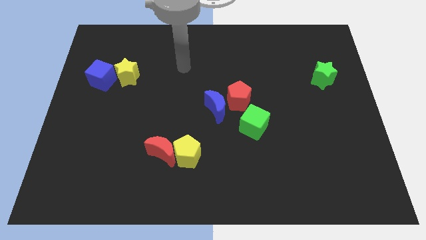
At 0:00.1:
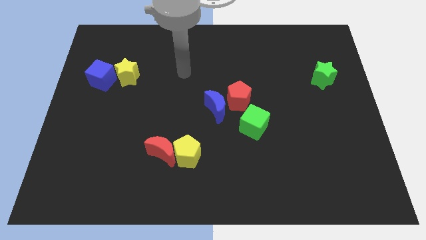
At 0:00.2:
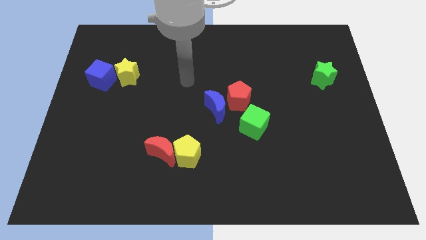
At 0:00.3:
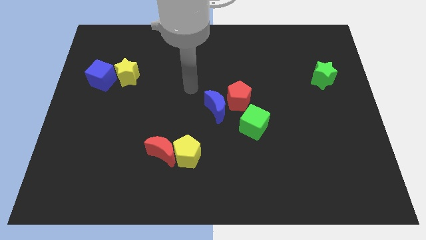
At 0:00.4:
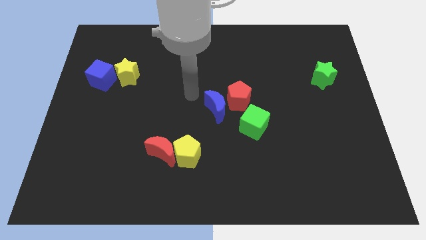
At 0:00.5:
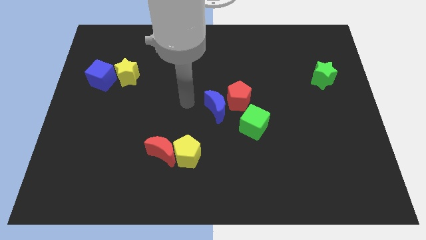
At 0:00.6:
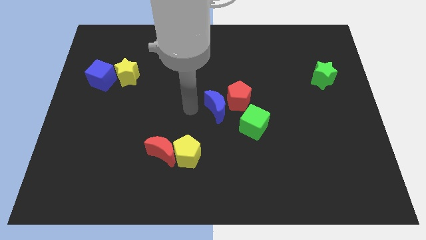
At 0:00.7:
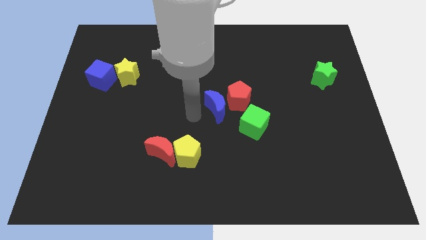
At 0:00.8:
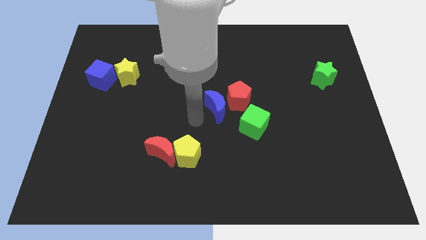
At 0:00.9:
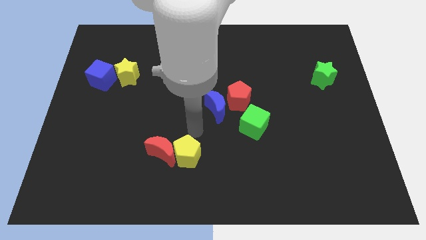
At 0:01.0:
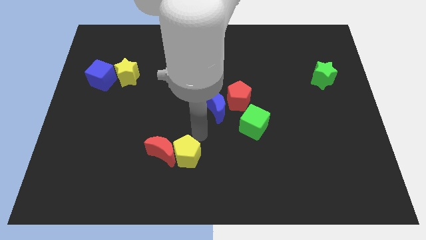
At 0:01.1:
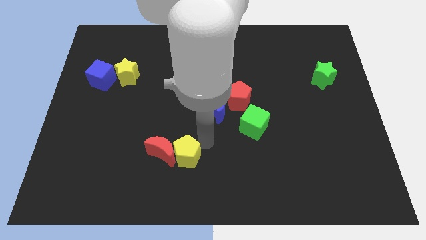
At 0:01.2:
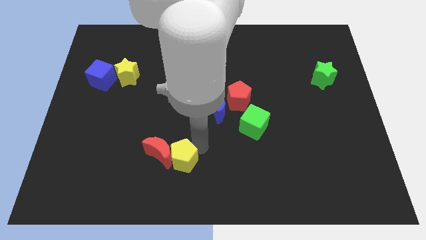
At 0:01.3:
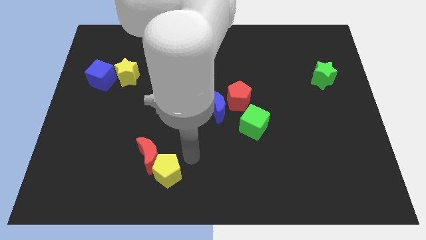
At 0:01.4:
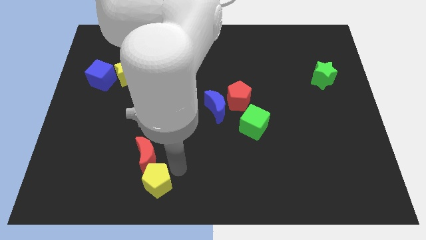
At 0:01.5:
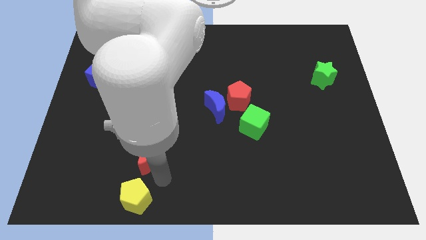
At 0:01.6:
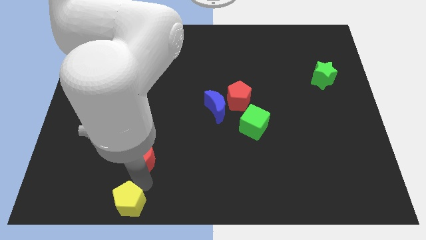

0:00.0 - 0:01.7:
separate the red moon from the yellow pentagon

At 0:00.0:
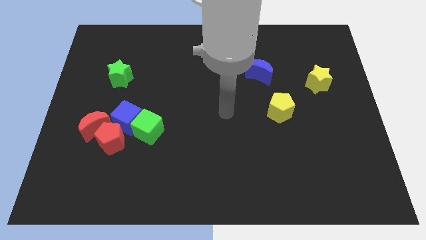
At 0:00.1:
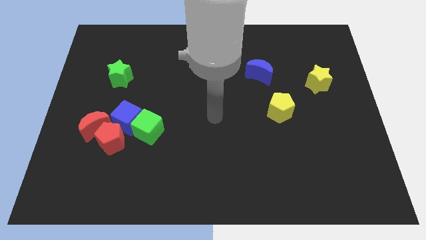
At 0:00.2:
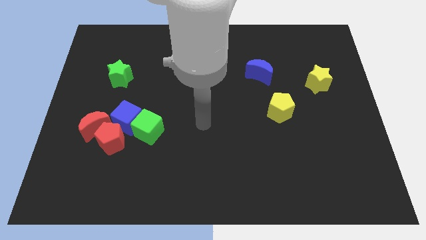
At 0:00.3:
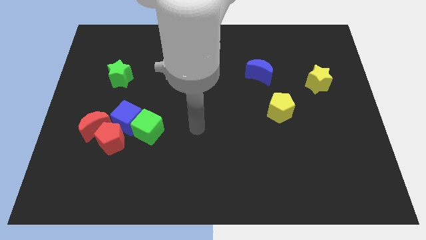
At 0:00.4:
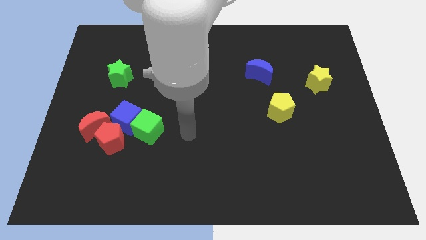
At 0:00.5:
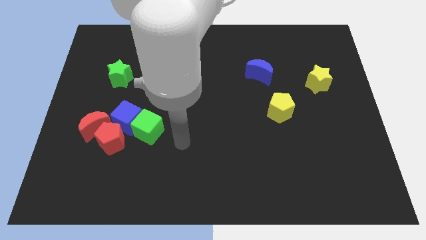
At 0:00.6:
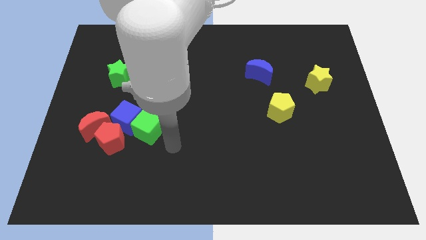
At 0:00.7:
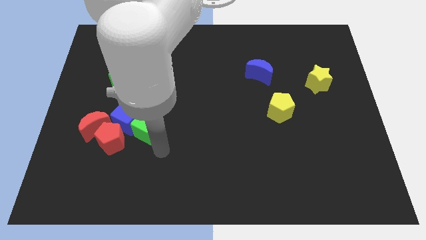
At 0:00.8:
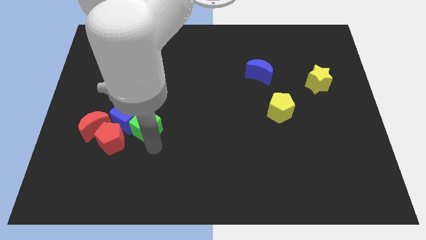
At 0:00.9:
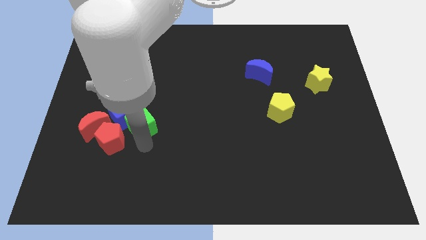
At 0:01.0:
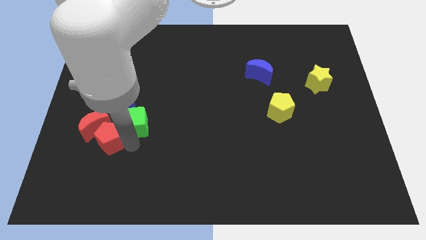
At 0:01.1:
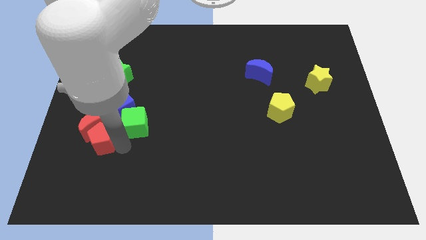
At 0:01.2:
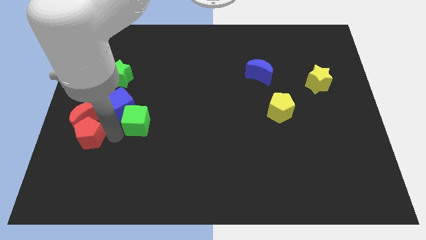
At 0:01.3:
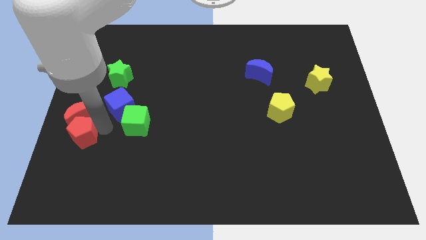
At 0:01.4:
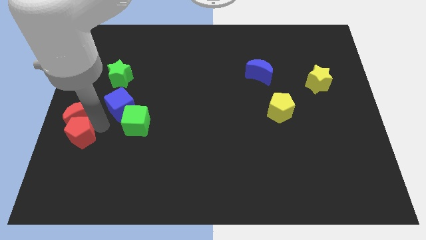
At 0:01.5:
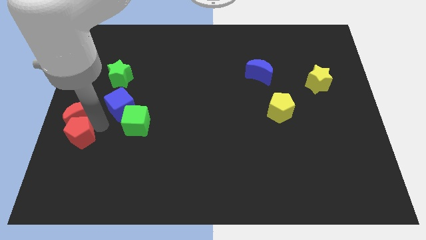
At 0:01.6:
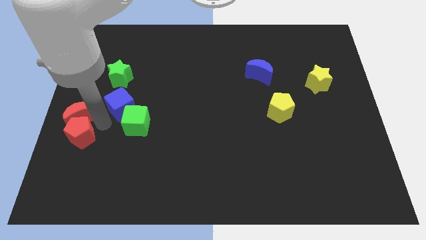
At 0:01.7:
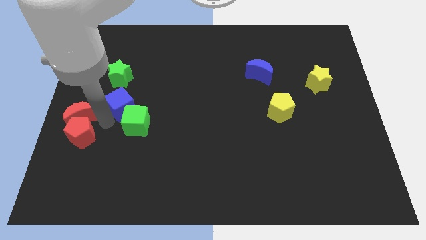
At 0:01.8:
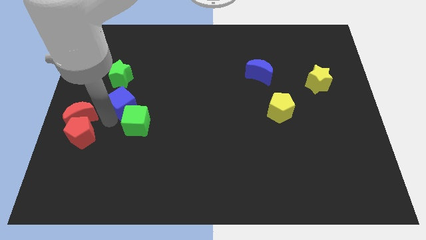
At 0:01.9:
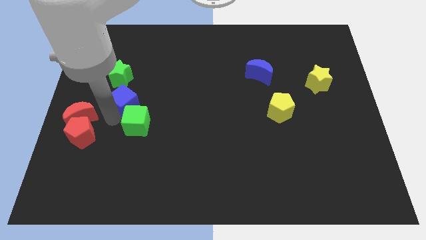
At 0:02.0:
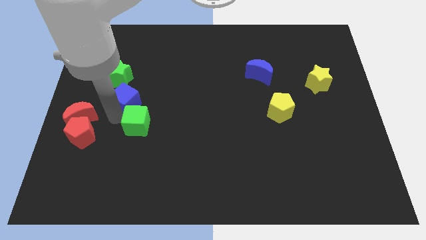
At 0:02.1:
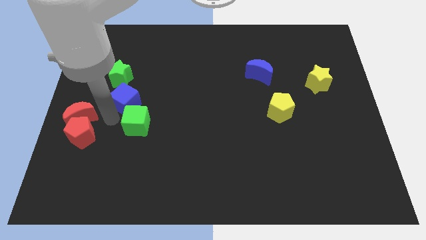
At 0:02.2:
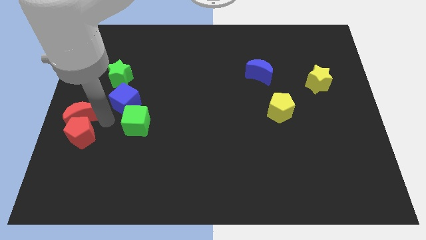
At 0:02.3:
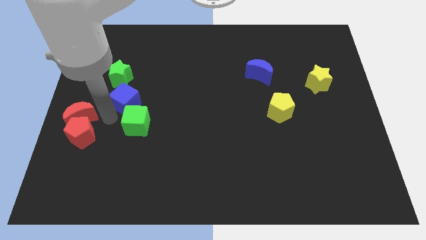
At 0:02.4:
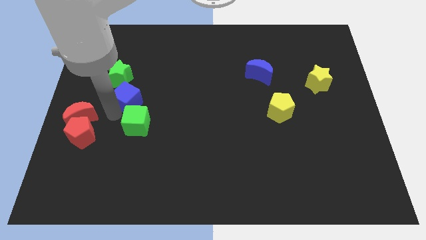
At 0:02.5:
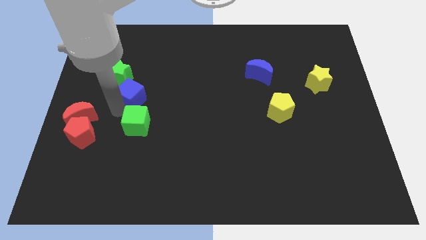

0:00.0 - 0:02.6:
separate the blue cube from the group

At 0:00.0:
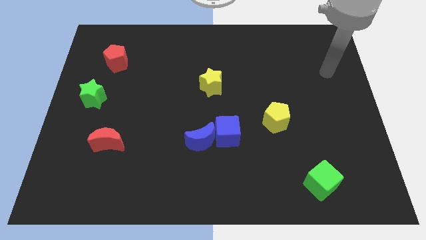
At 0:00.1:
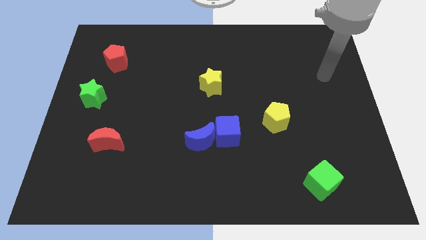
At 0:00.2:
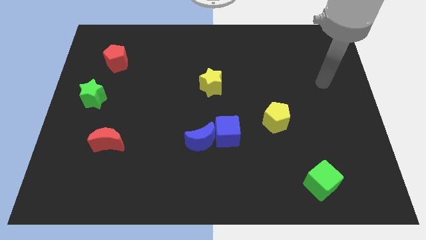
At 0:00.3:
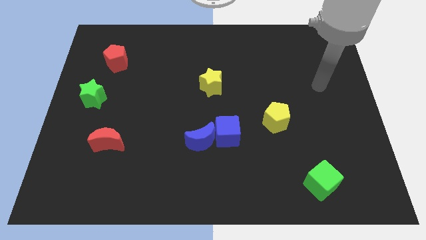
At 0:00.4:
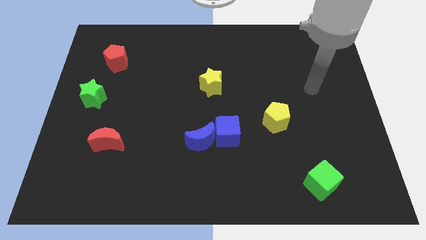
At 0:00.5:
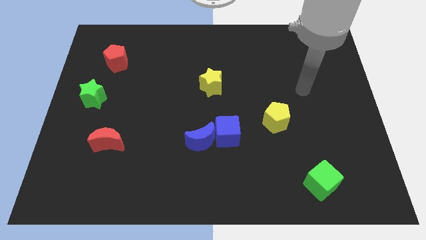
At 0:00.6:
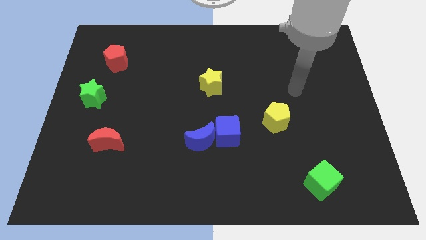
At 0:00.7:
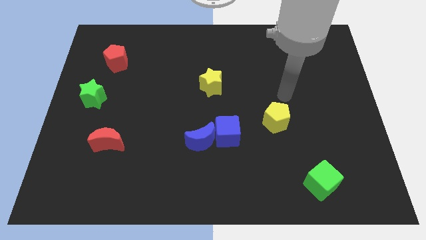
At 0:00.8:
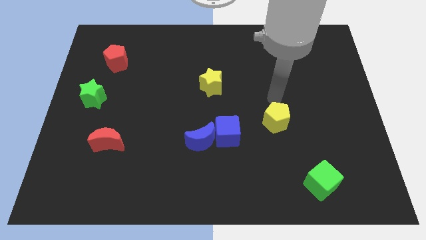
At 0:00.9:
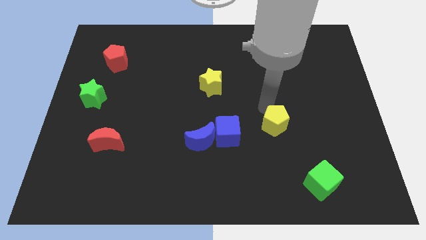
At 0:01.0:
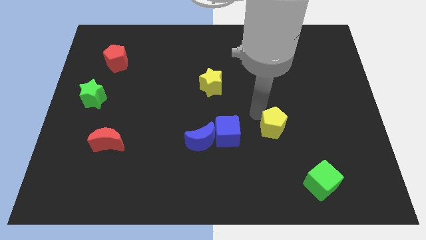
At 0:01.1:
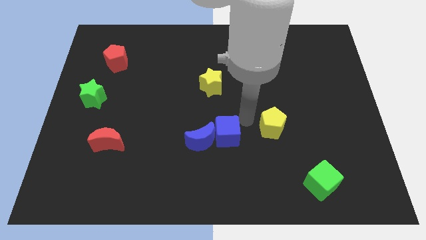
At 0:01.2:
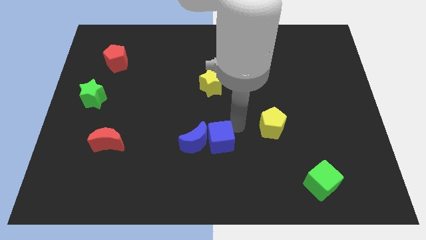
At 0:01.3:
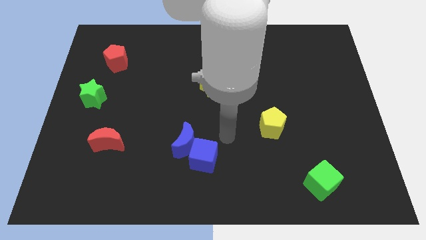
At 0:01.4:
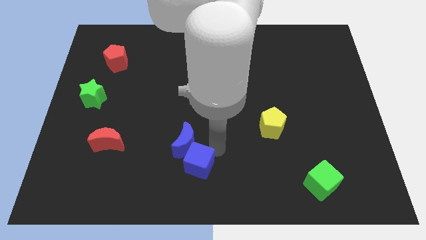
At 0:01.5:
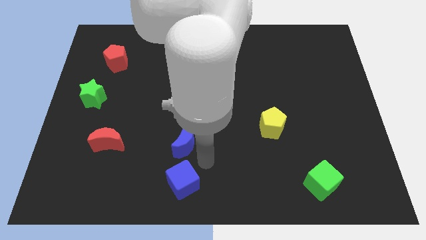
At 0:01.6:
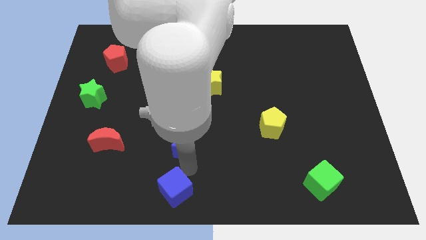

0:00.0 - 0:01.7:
move the blue moon away from the blue cube

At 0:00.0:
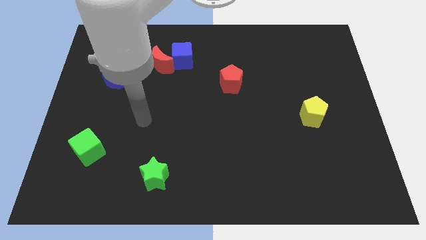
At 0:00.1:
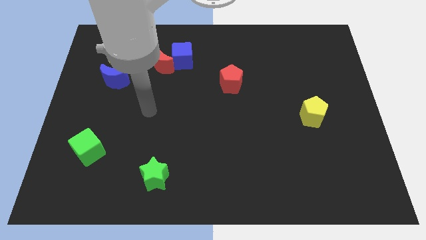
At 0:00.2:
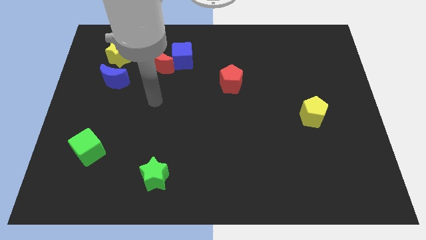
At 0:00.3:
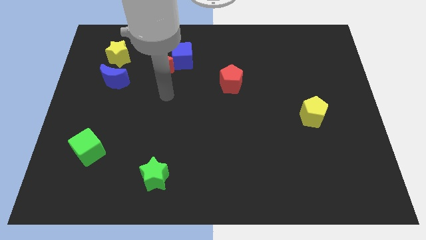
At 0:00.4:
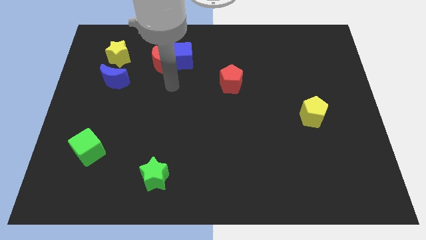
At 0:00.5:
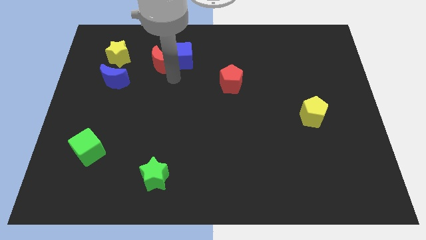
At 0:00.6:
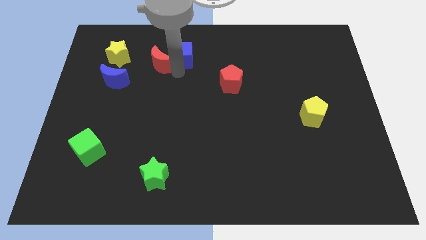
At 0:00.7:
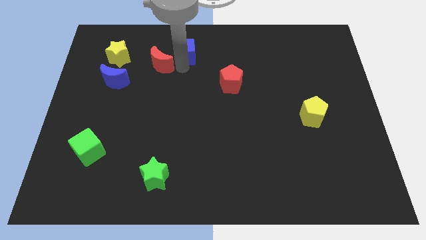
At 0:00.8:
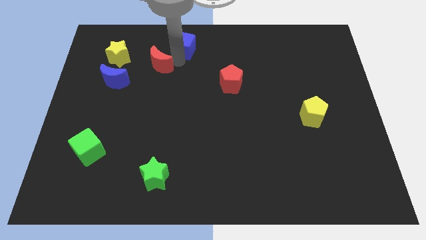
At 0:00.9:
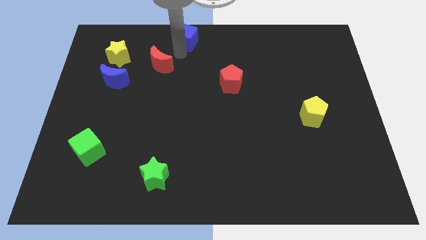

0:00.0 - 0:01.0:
pull the red moon apart from the blue cube

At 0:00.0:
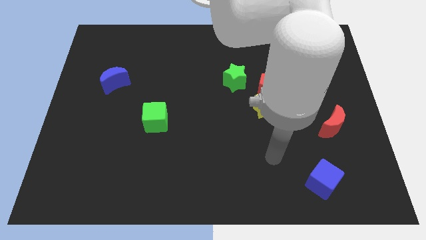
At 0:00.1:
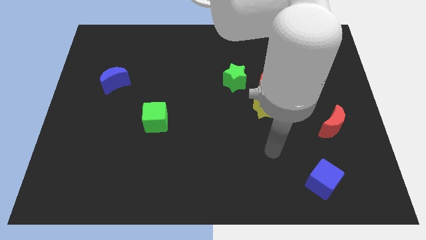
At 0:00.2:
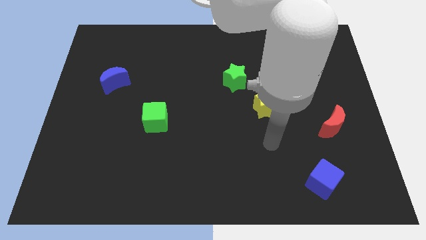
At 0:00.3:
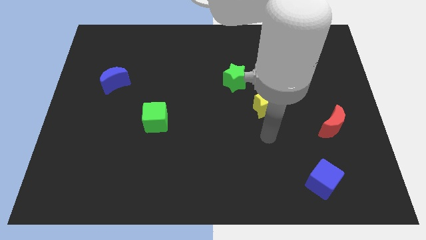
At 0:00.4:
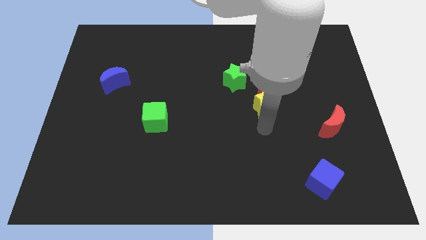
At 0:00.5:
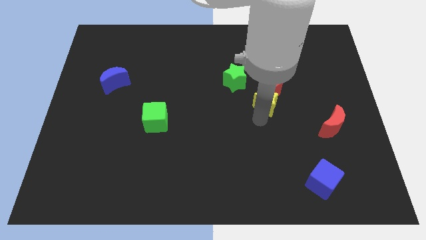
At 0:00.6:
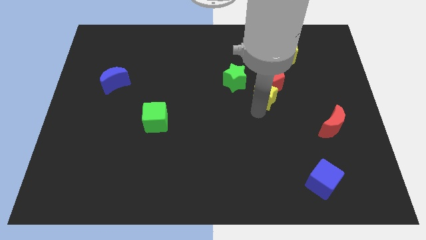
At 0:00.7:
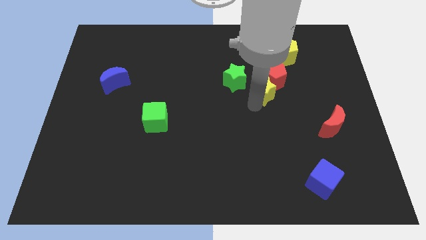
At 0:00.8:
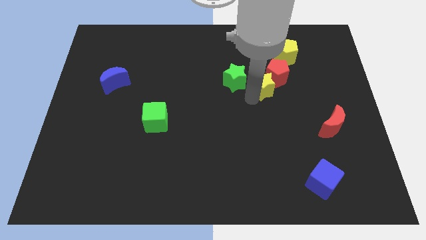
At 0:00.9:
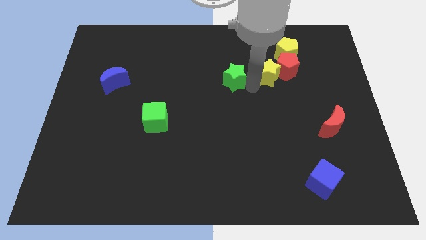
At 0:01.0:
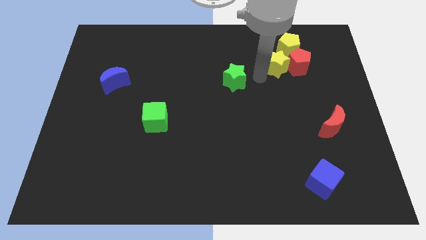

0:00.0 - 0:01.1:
pull the red pentagon apart from the yellow star and green star

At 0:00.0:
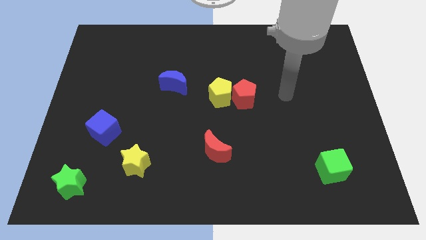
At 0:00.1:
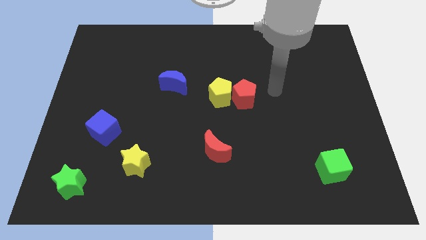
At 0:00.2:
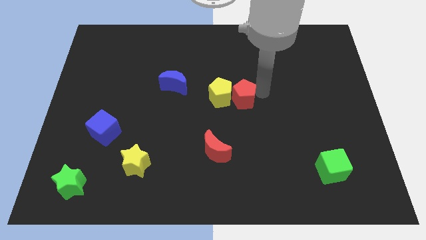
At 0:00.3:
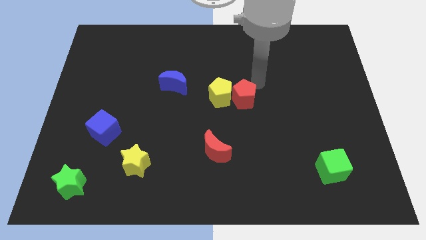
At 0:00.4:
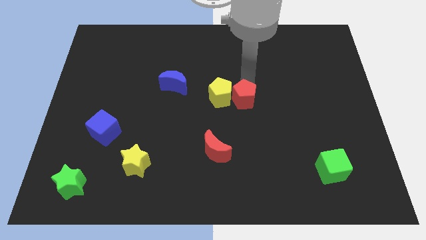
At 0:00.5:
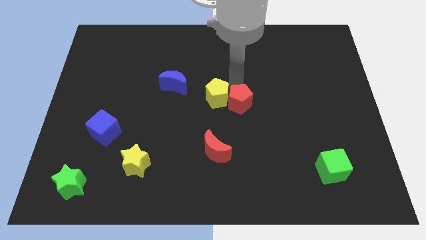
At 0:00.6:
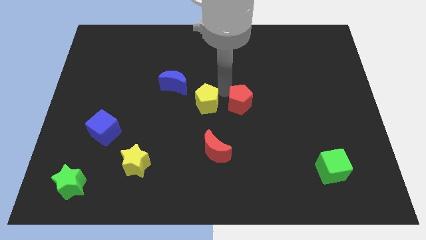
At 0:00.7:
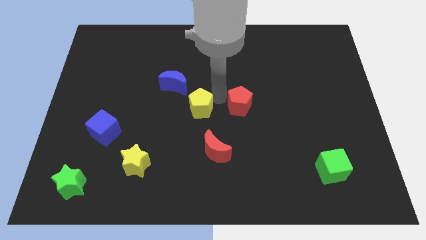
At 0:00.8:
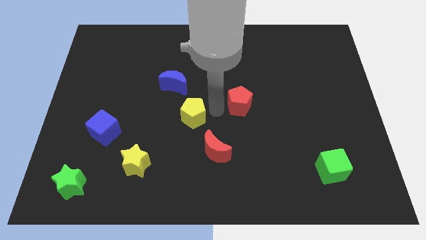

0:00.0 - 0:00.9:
move the red pentagon away from the yellow pentagon

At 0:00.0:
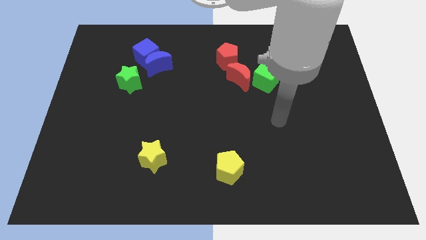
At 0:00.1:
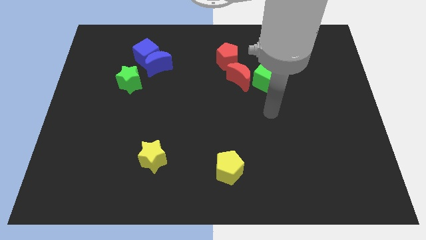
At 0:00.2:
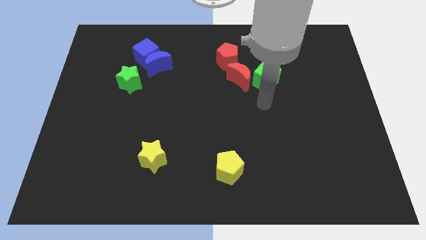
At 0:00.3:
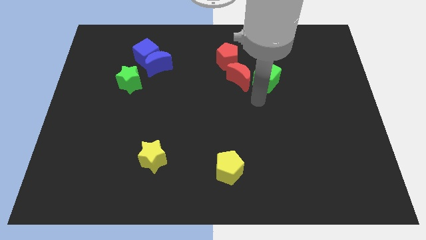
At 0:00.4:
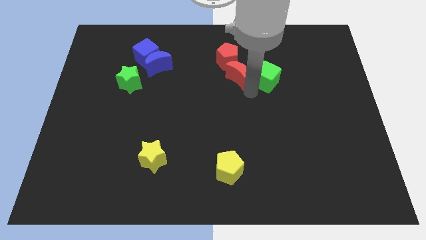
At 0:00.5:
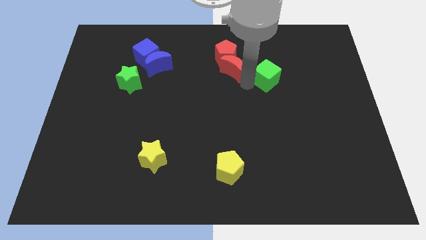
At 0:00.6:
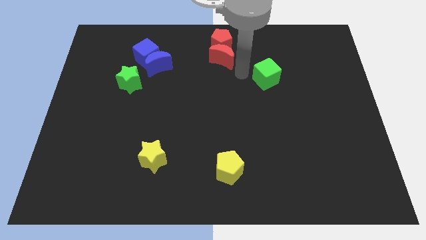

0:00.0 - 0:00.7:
move the green cube away from the red moon
